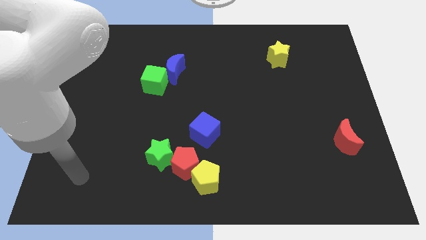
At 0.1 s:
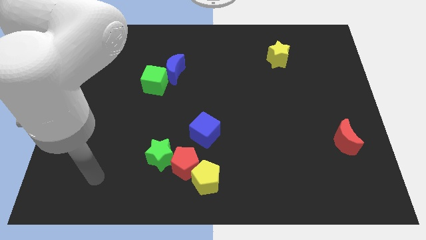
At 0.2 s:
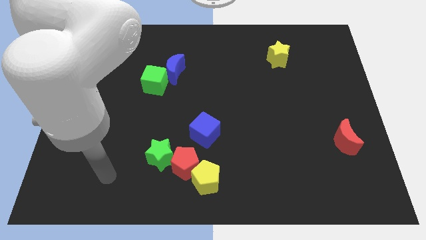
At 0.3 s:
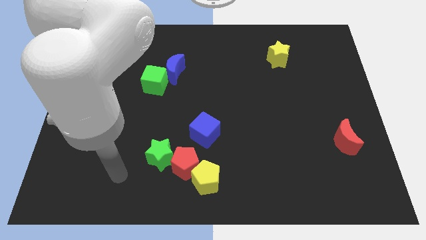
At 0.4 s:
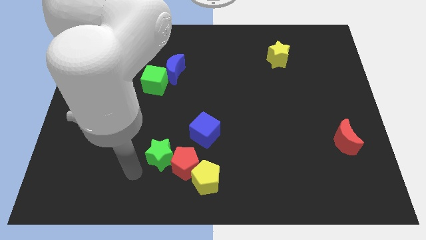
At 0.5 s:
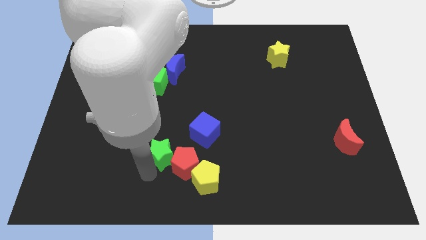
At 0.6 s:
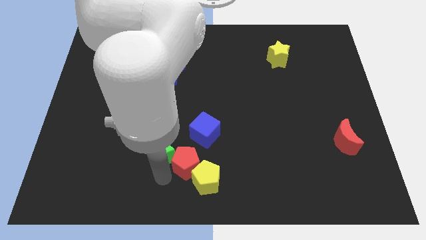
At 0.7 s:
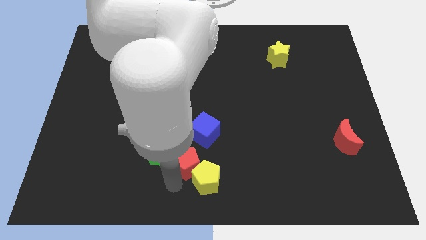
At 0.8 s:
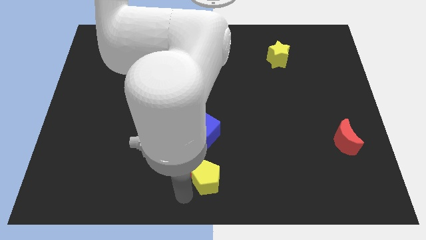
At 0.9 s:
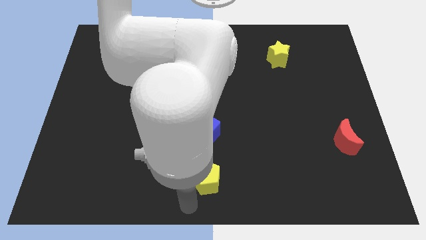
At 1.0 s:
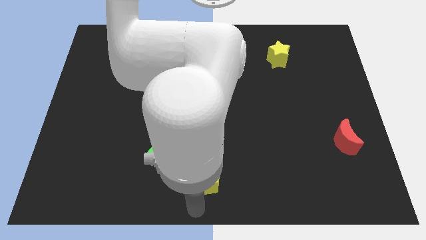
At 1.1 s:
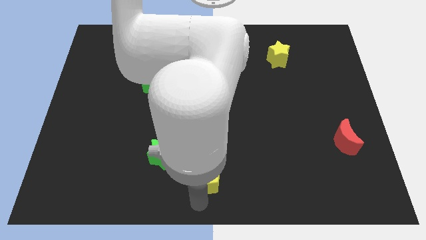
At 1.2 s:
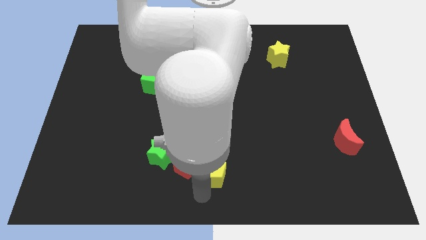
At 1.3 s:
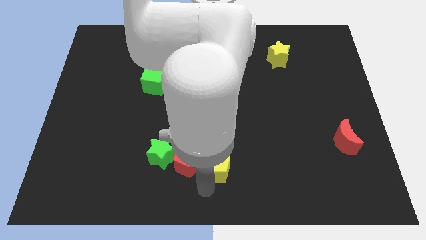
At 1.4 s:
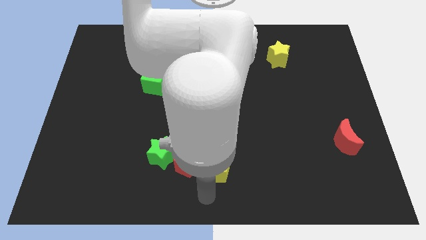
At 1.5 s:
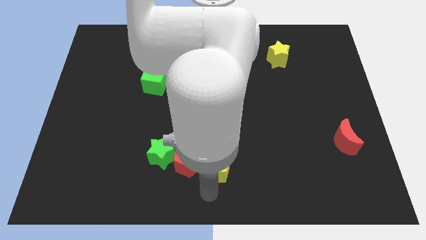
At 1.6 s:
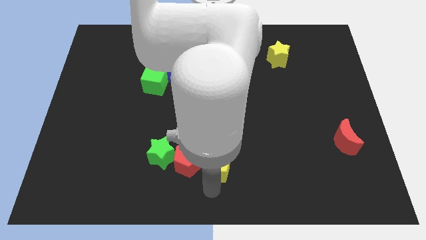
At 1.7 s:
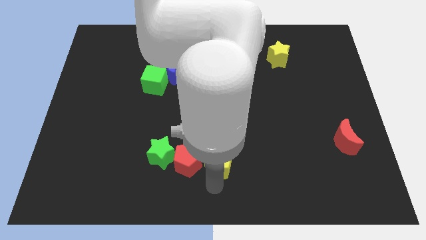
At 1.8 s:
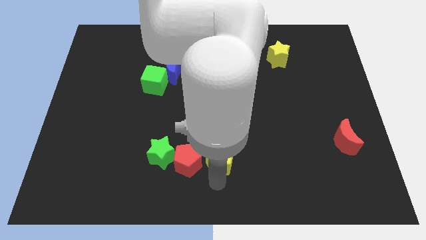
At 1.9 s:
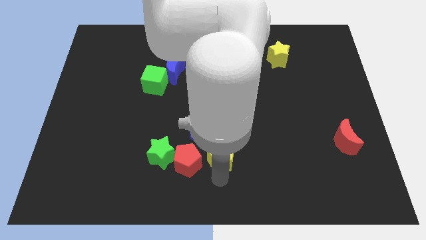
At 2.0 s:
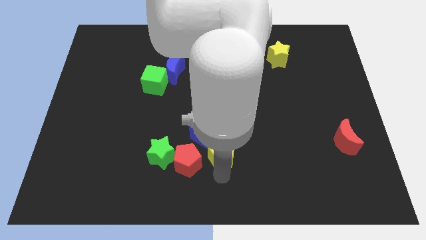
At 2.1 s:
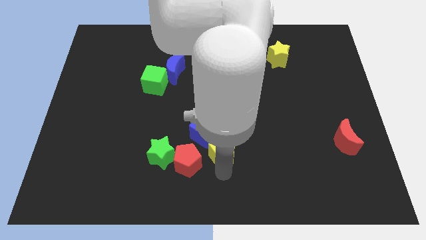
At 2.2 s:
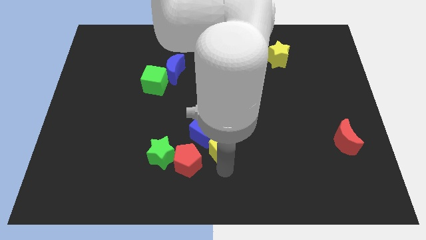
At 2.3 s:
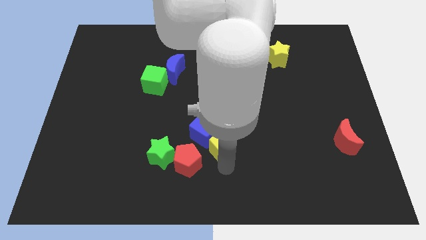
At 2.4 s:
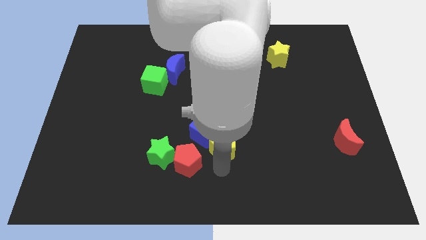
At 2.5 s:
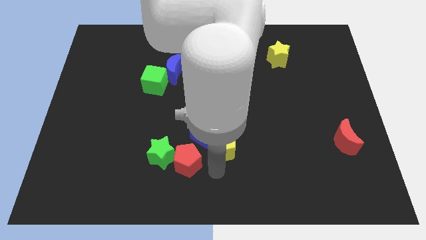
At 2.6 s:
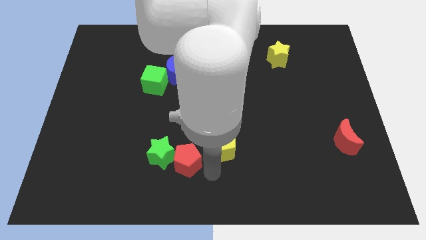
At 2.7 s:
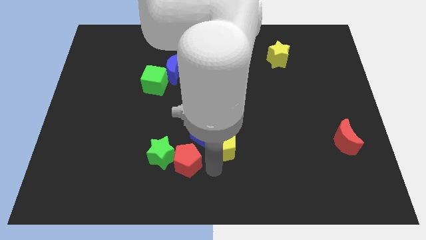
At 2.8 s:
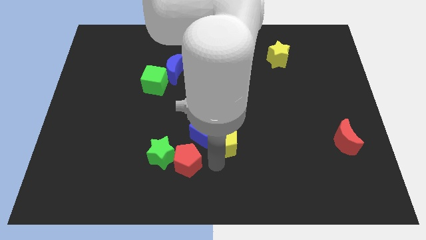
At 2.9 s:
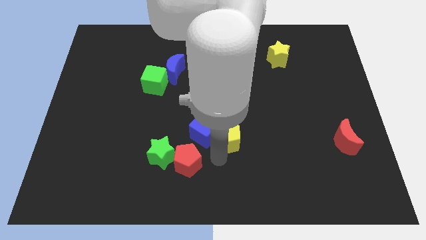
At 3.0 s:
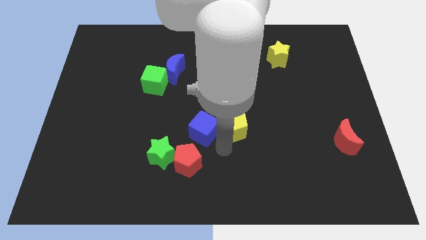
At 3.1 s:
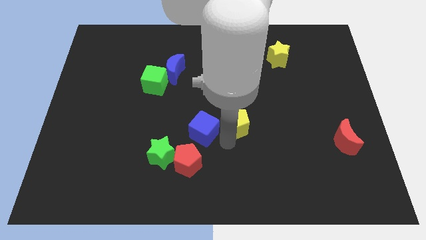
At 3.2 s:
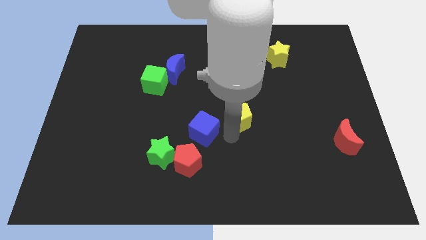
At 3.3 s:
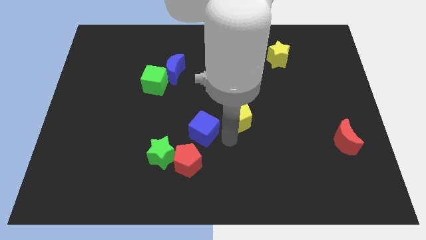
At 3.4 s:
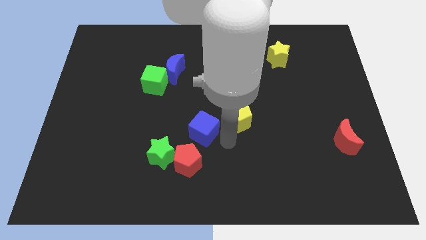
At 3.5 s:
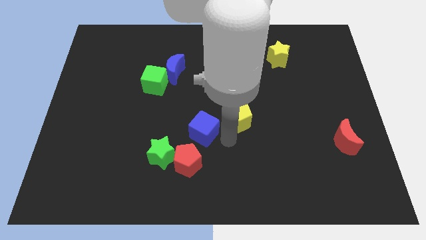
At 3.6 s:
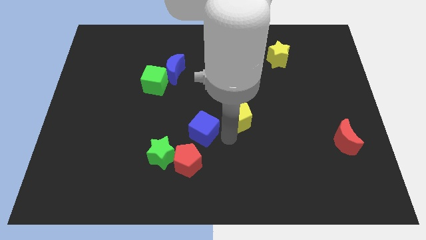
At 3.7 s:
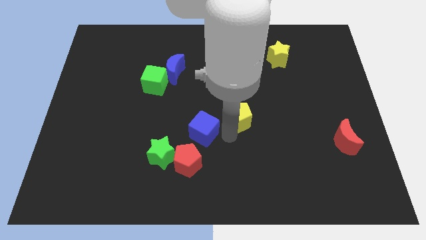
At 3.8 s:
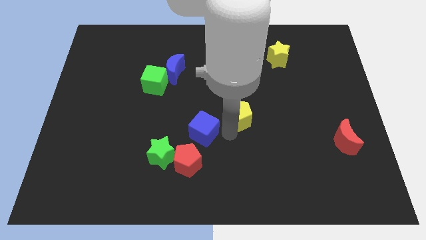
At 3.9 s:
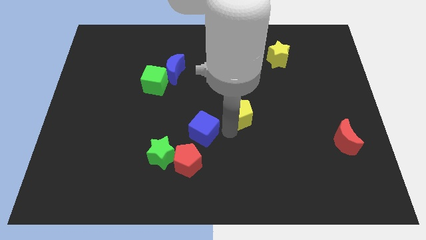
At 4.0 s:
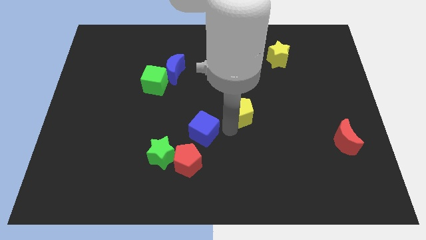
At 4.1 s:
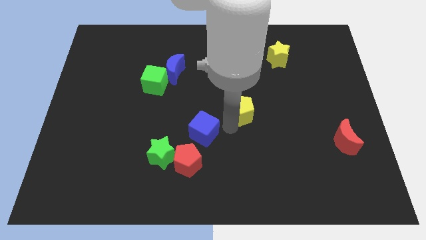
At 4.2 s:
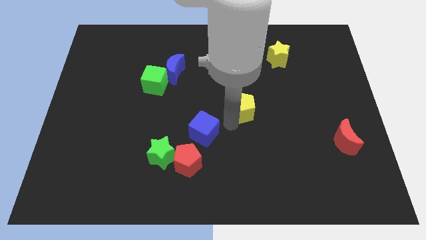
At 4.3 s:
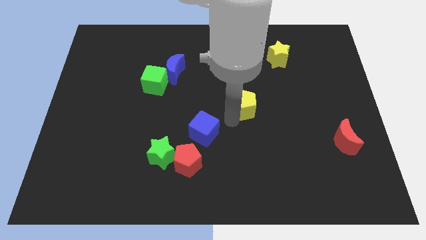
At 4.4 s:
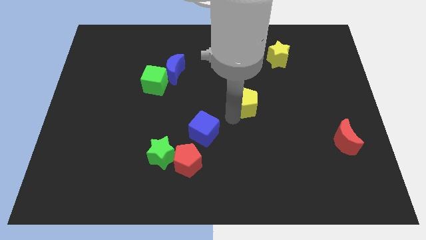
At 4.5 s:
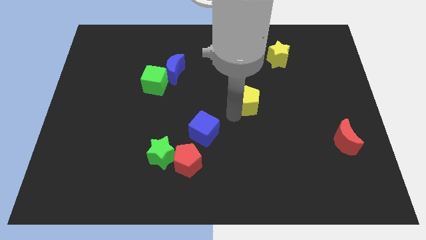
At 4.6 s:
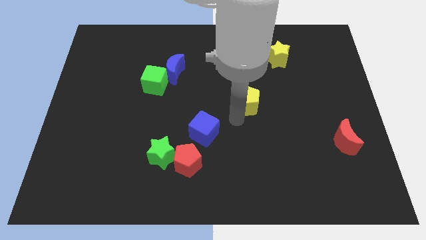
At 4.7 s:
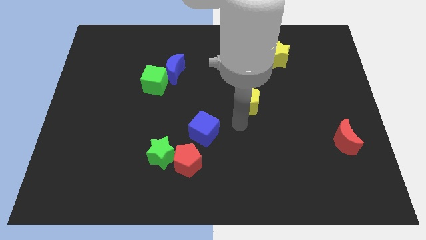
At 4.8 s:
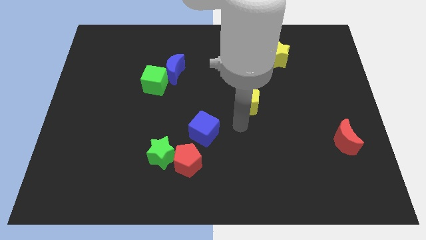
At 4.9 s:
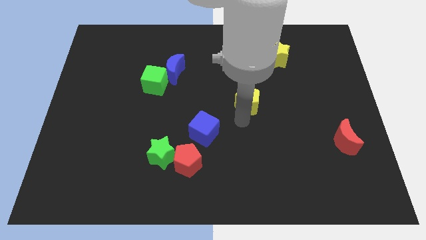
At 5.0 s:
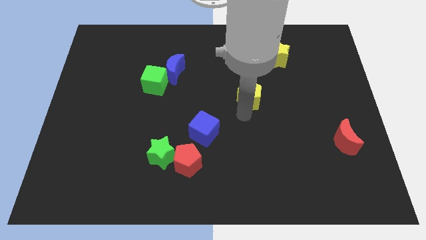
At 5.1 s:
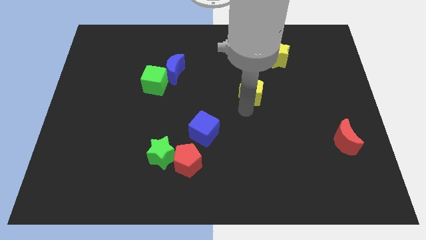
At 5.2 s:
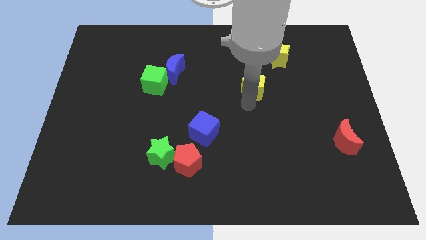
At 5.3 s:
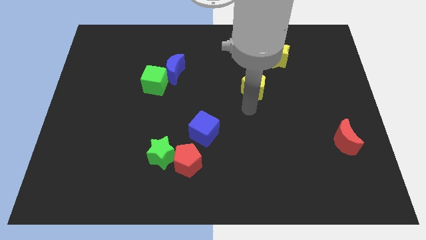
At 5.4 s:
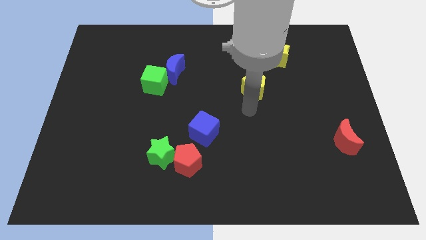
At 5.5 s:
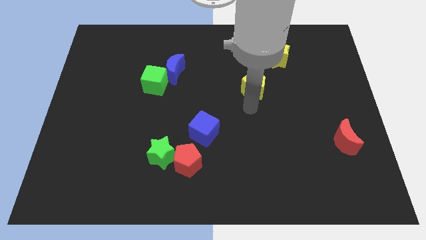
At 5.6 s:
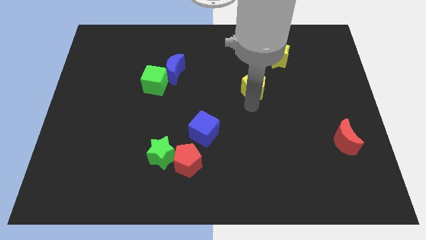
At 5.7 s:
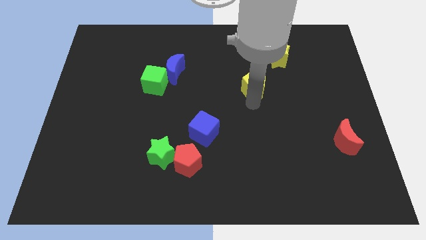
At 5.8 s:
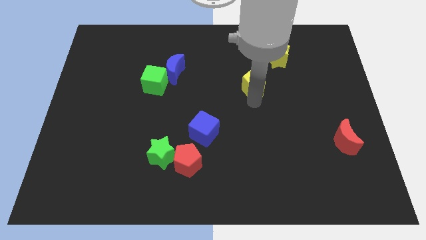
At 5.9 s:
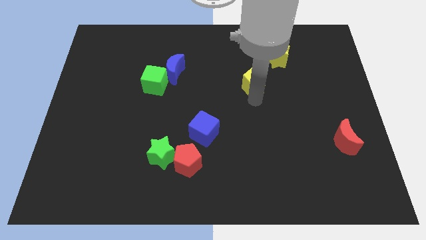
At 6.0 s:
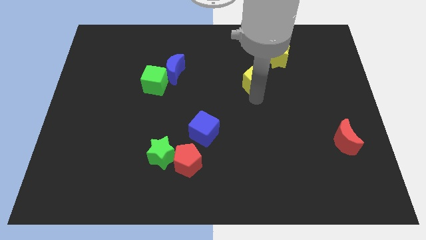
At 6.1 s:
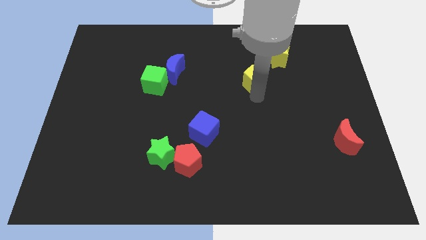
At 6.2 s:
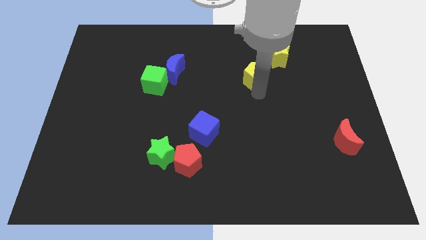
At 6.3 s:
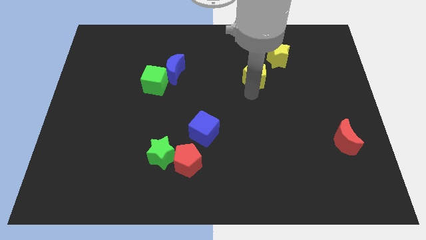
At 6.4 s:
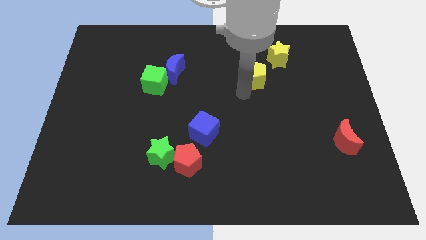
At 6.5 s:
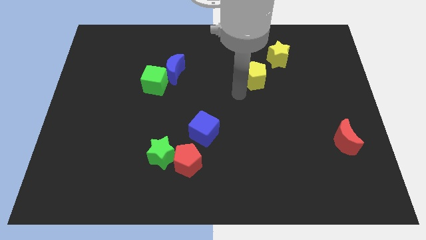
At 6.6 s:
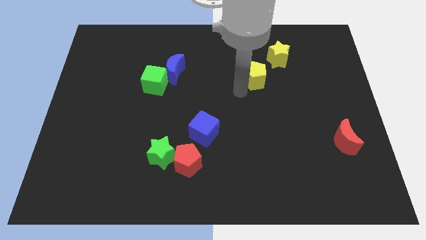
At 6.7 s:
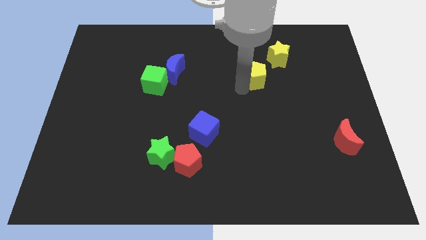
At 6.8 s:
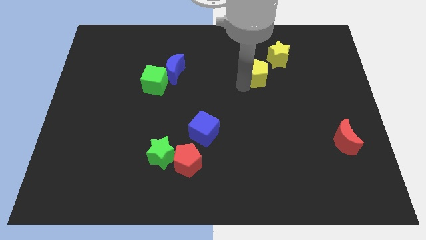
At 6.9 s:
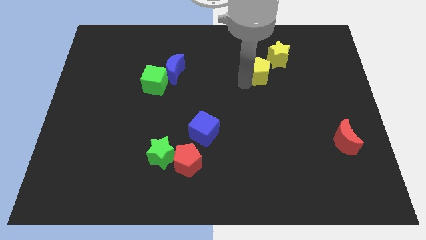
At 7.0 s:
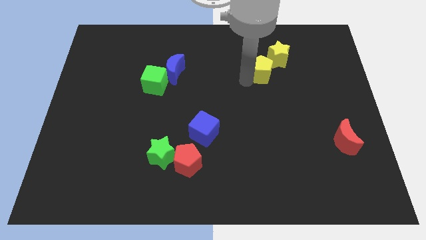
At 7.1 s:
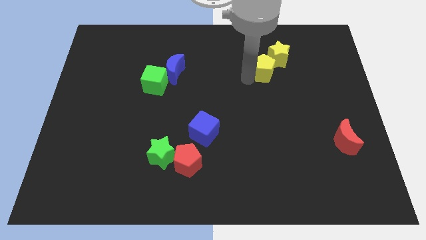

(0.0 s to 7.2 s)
slide the yellow pentagon to the yellow star
